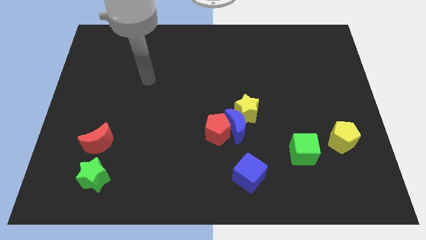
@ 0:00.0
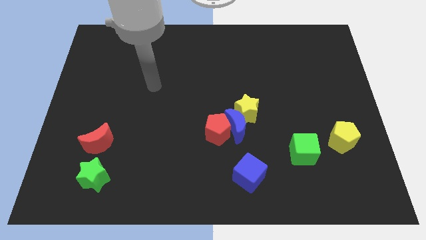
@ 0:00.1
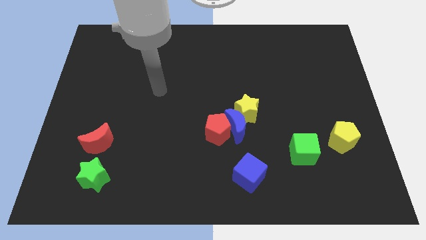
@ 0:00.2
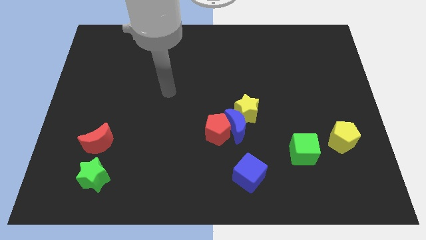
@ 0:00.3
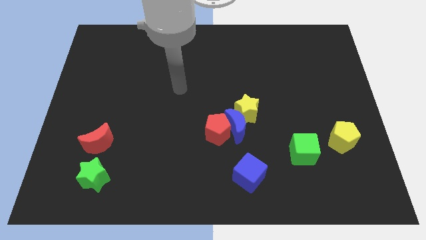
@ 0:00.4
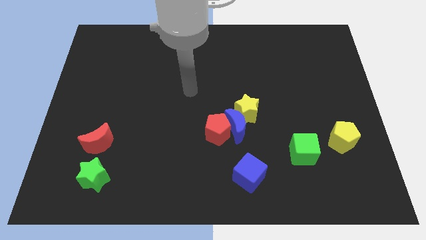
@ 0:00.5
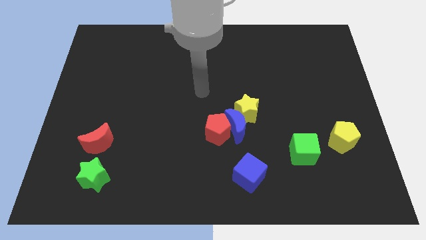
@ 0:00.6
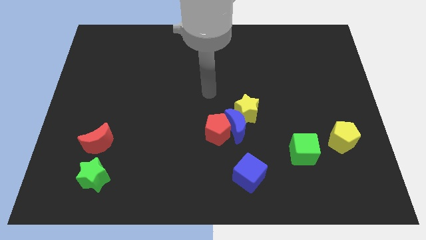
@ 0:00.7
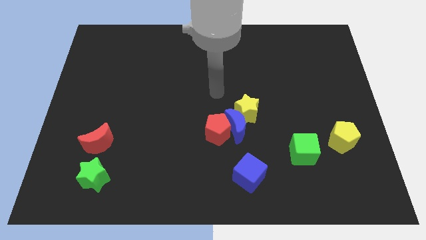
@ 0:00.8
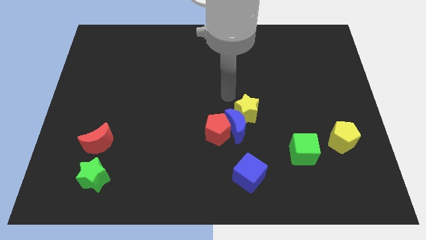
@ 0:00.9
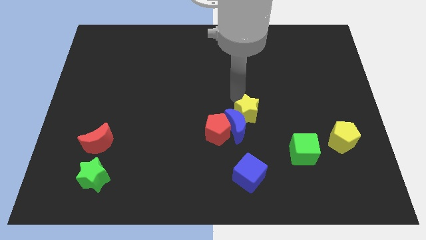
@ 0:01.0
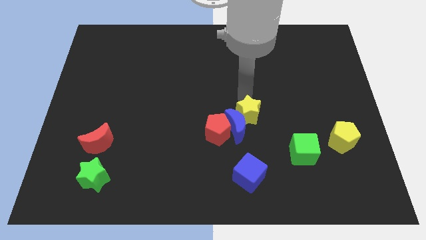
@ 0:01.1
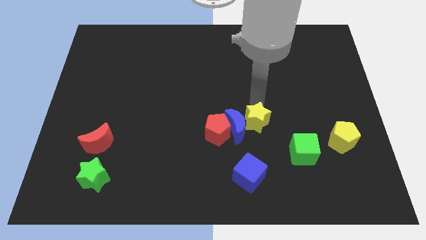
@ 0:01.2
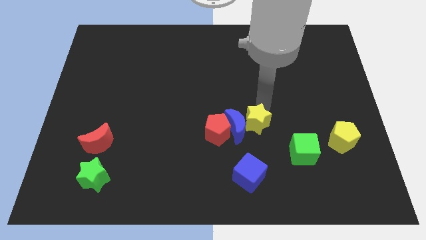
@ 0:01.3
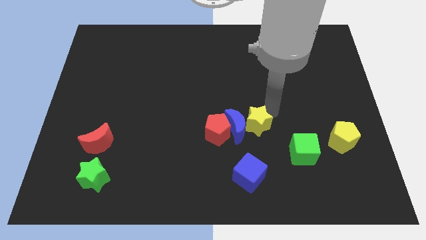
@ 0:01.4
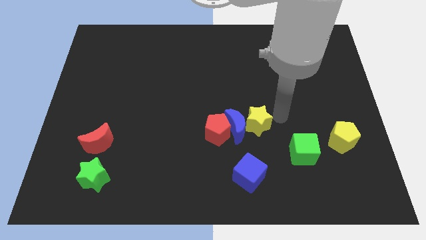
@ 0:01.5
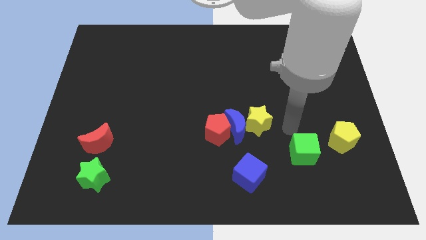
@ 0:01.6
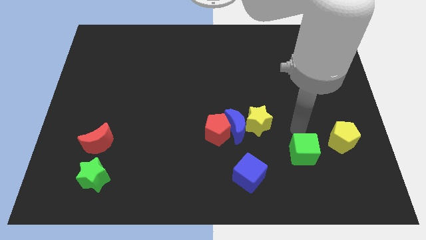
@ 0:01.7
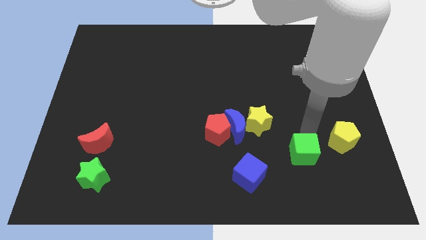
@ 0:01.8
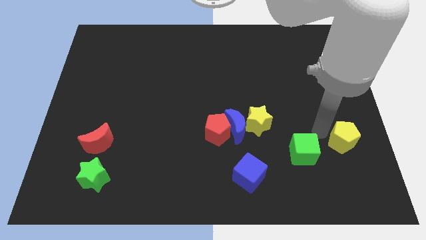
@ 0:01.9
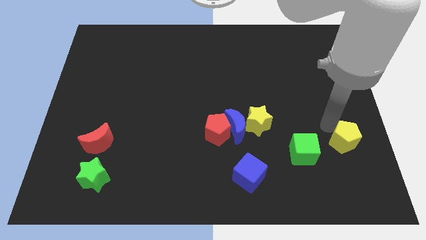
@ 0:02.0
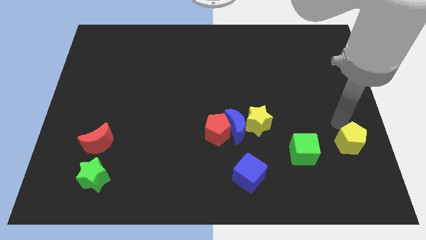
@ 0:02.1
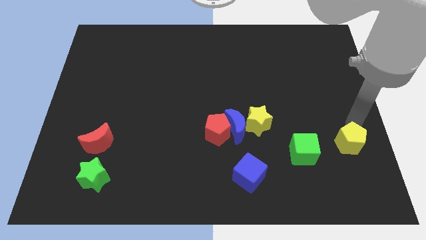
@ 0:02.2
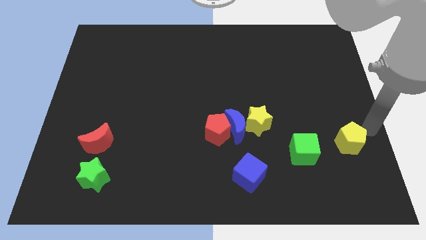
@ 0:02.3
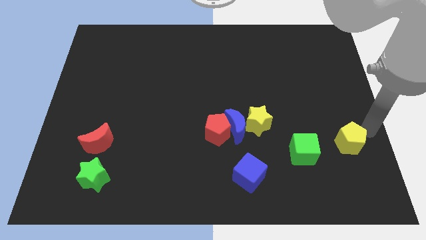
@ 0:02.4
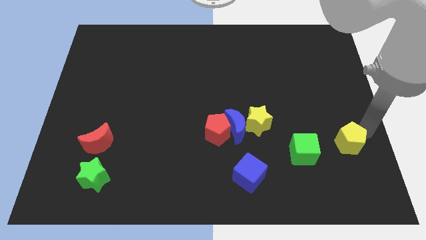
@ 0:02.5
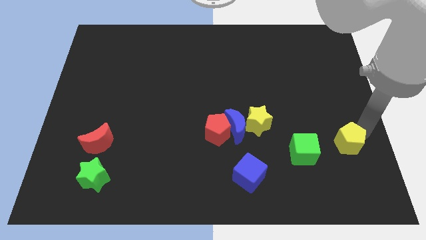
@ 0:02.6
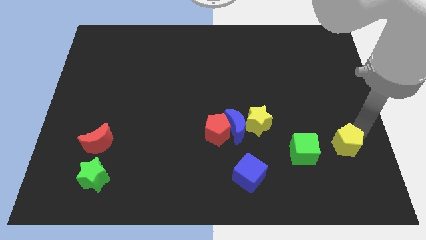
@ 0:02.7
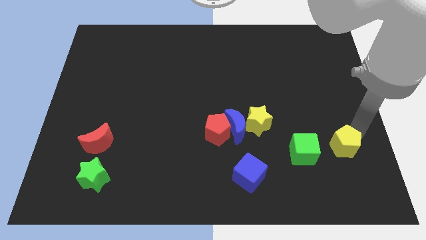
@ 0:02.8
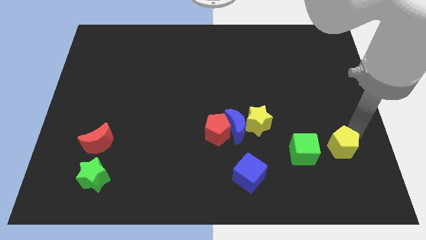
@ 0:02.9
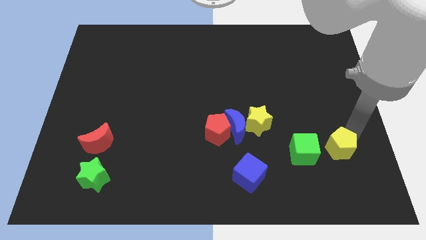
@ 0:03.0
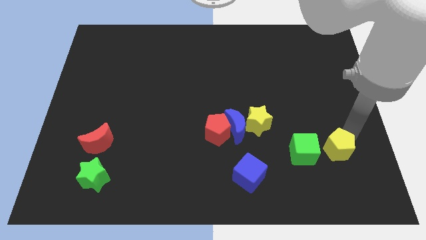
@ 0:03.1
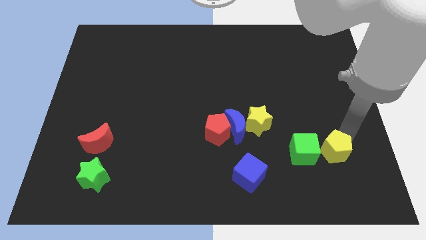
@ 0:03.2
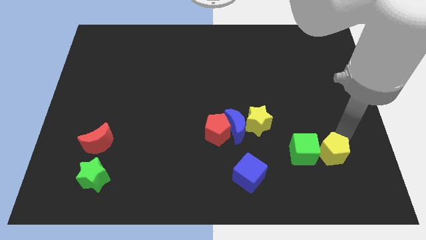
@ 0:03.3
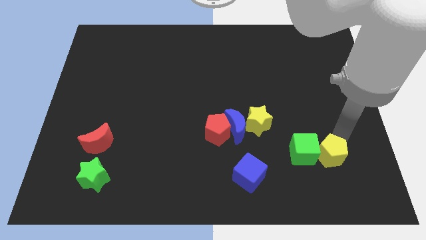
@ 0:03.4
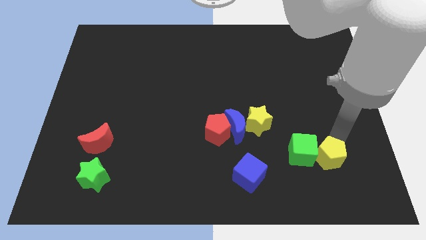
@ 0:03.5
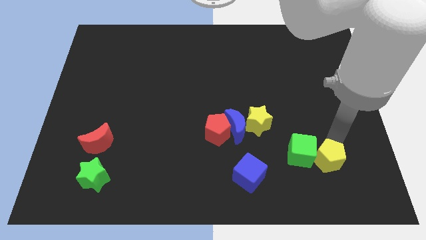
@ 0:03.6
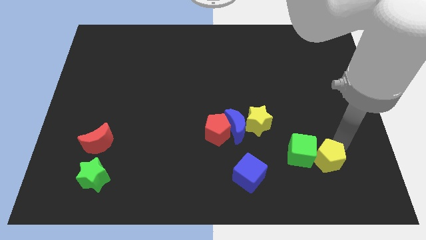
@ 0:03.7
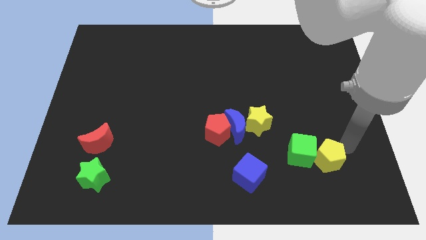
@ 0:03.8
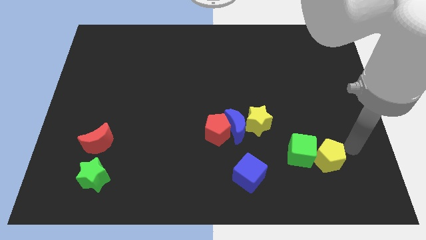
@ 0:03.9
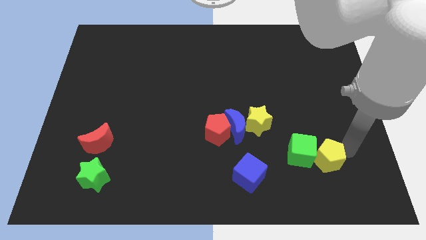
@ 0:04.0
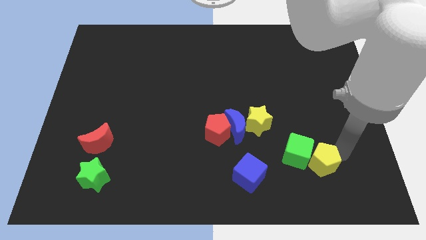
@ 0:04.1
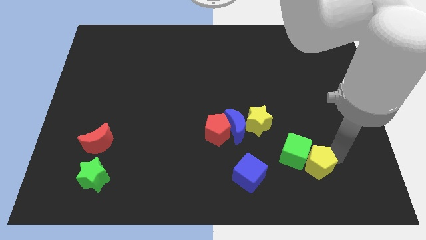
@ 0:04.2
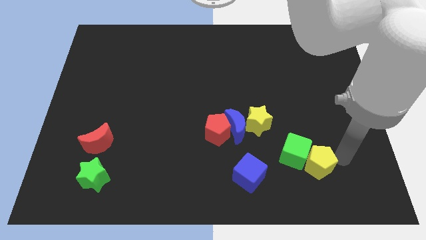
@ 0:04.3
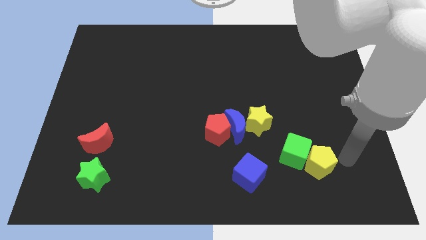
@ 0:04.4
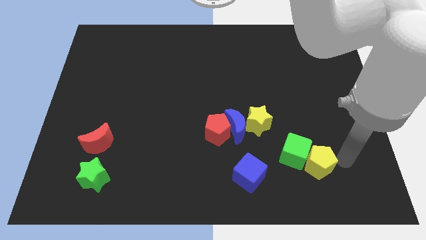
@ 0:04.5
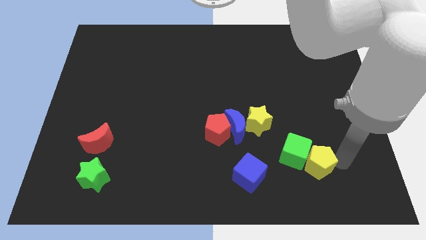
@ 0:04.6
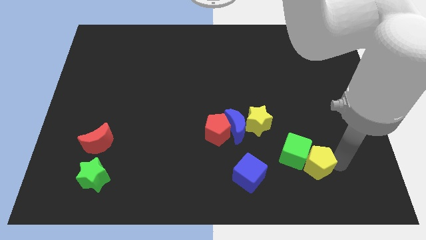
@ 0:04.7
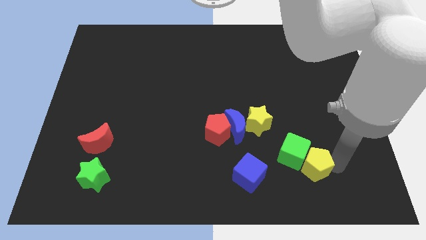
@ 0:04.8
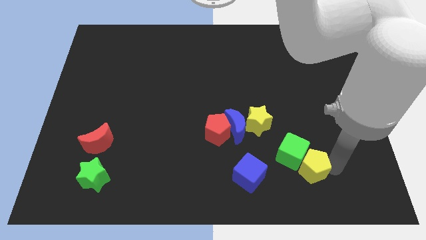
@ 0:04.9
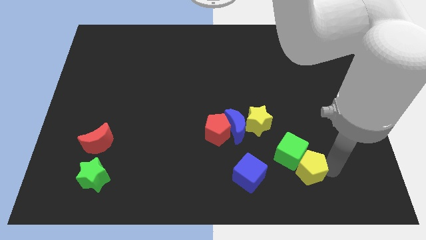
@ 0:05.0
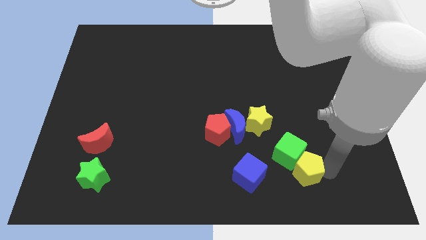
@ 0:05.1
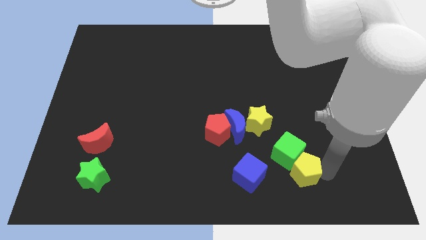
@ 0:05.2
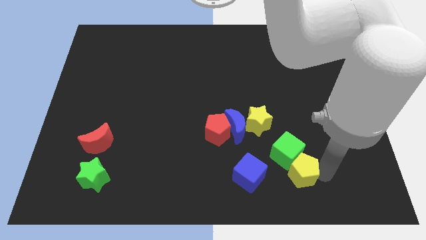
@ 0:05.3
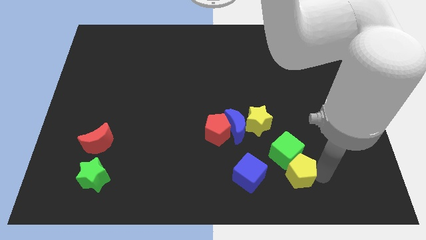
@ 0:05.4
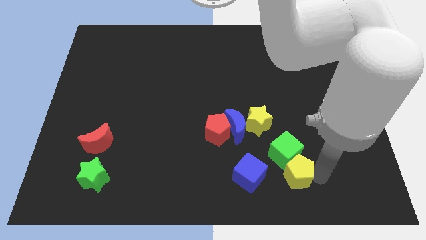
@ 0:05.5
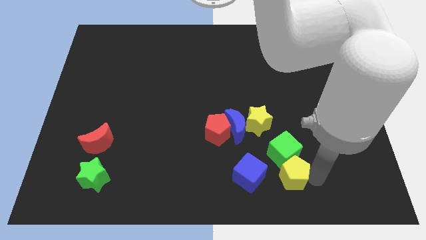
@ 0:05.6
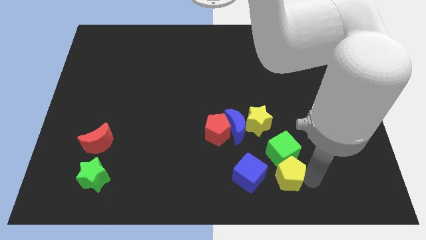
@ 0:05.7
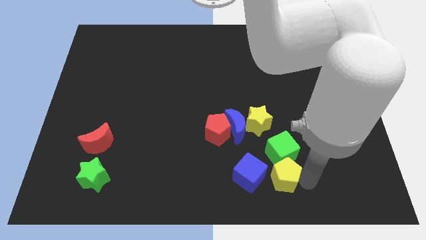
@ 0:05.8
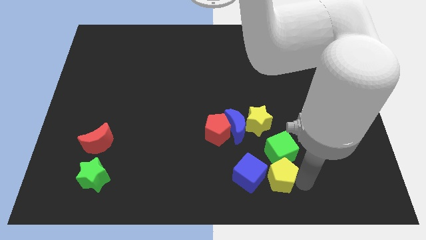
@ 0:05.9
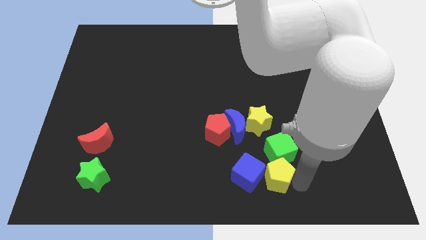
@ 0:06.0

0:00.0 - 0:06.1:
move the yellow pentagon close to the blue cube

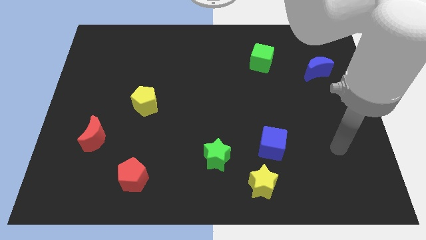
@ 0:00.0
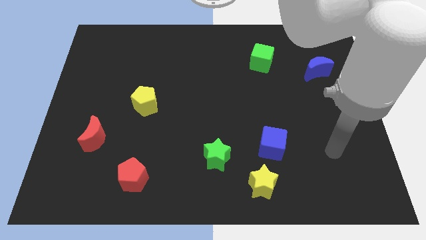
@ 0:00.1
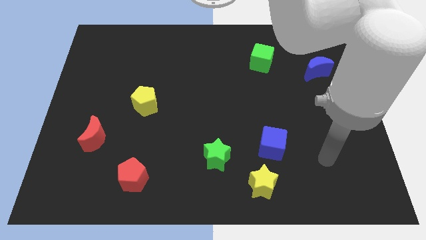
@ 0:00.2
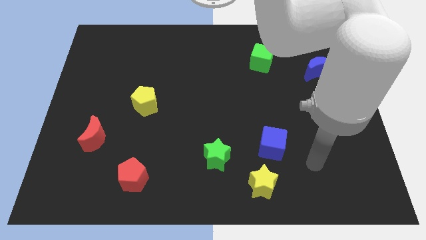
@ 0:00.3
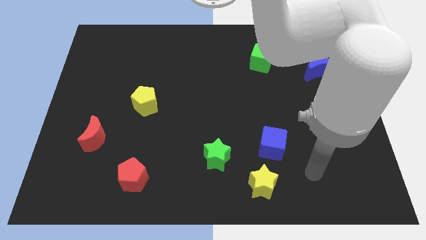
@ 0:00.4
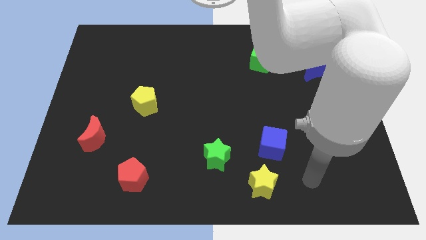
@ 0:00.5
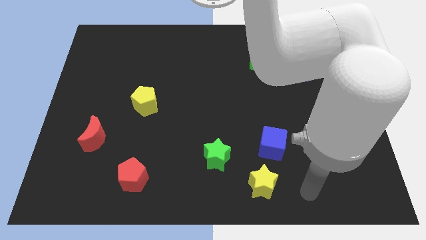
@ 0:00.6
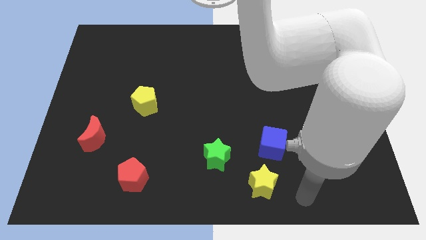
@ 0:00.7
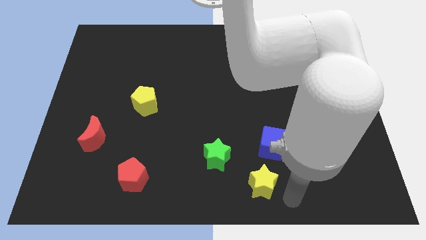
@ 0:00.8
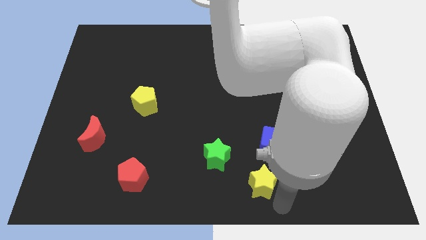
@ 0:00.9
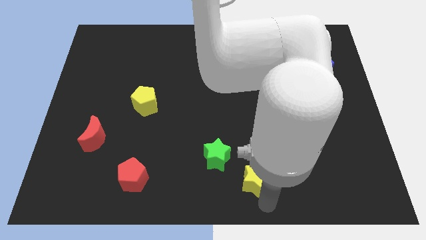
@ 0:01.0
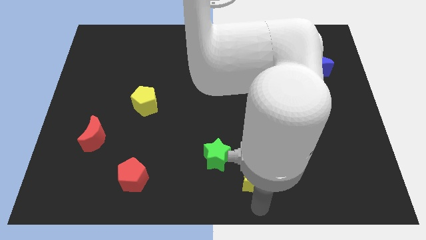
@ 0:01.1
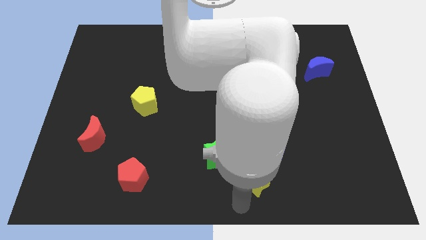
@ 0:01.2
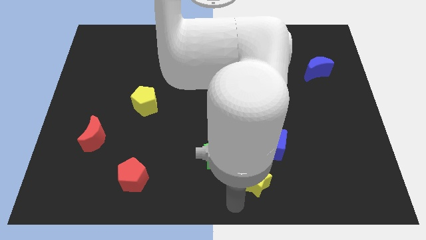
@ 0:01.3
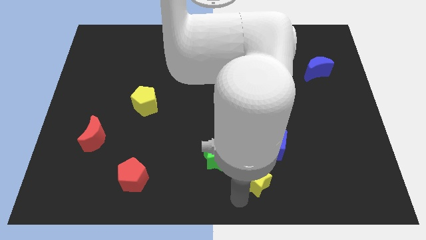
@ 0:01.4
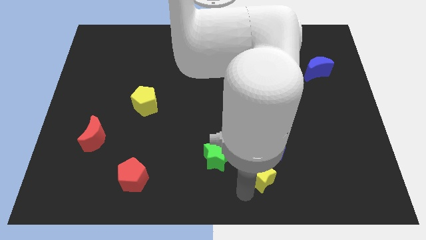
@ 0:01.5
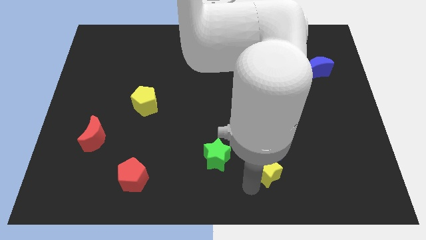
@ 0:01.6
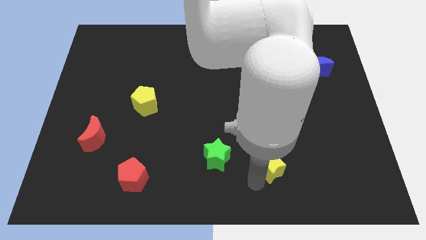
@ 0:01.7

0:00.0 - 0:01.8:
put the yellow star close to the blue cube

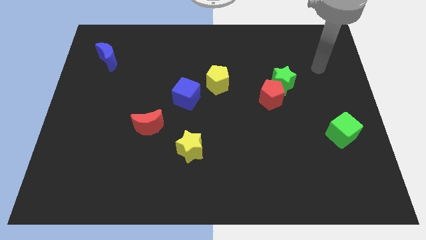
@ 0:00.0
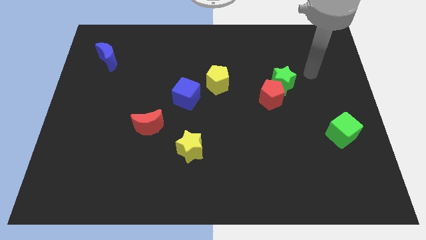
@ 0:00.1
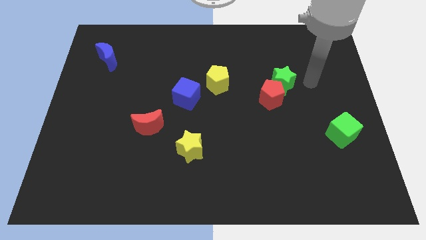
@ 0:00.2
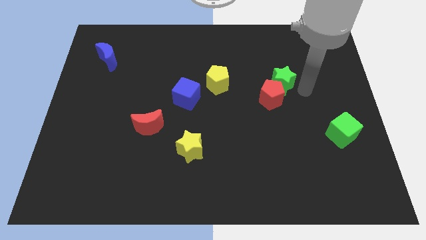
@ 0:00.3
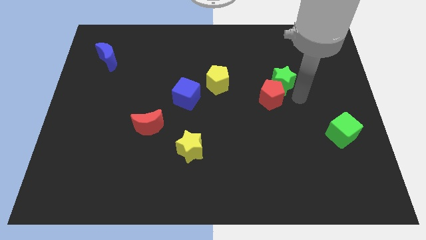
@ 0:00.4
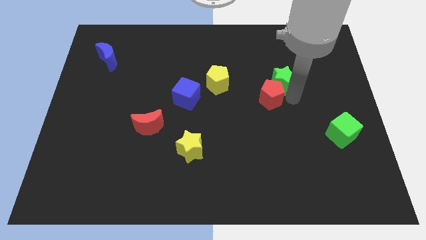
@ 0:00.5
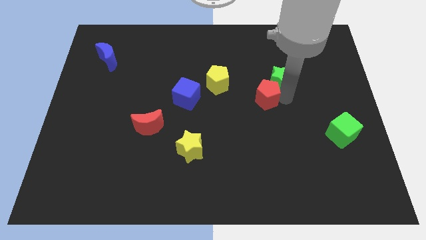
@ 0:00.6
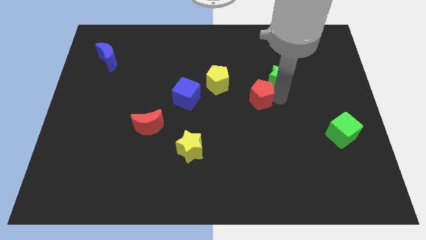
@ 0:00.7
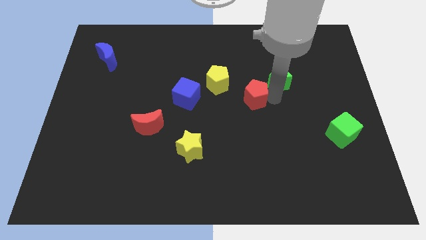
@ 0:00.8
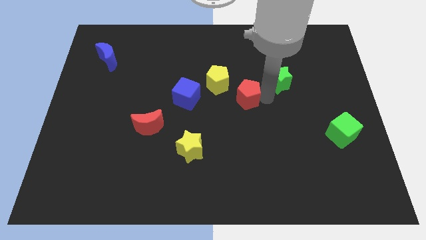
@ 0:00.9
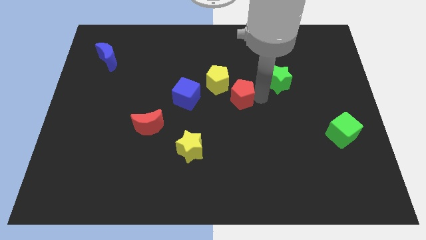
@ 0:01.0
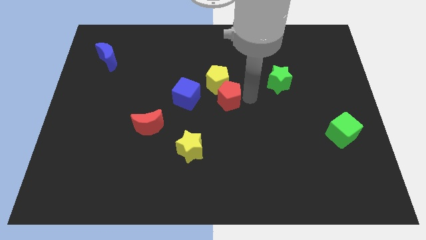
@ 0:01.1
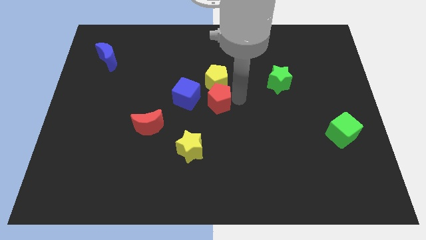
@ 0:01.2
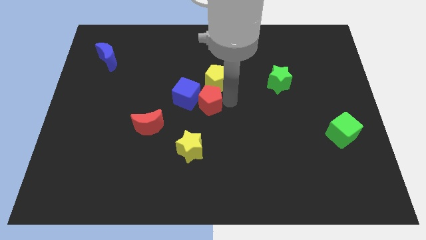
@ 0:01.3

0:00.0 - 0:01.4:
put the red pentagon next to the blue cube
